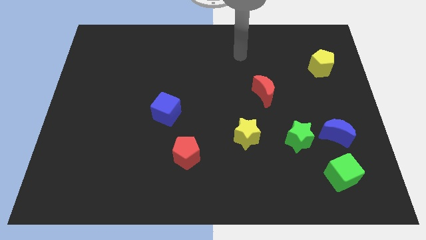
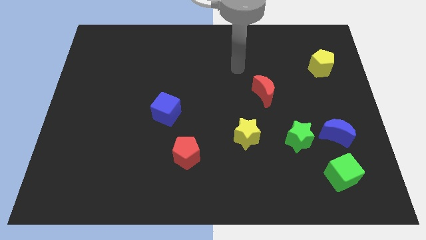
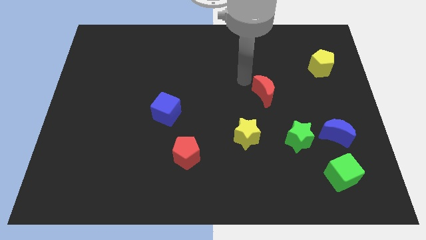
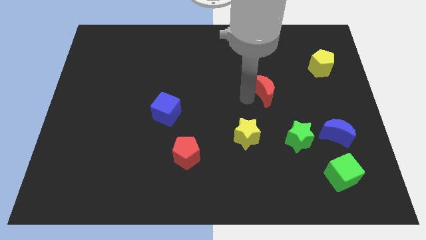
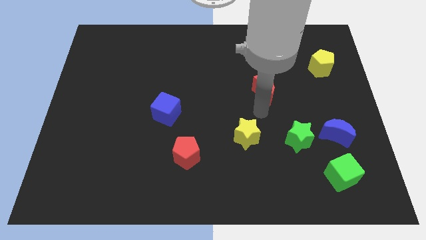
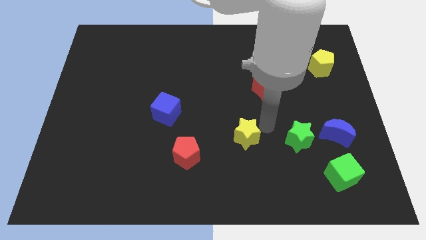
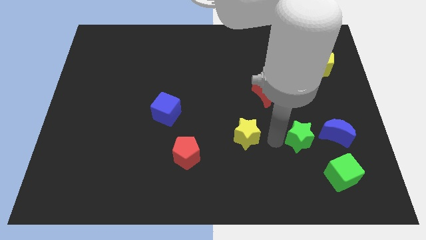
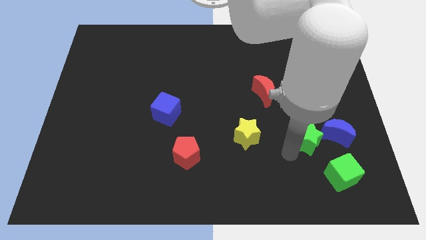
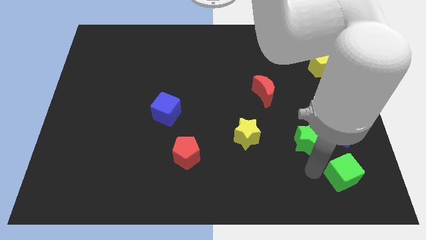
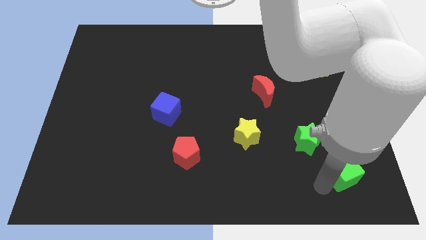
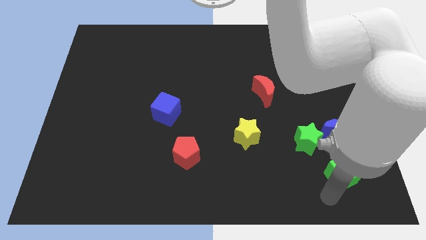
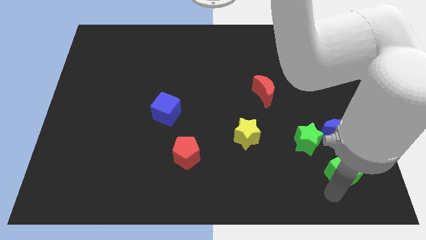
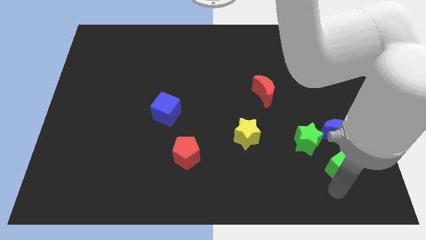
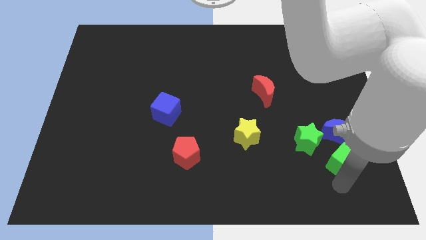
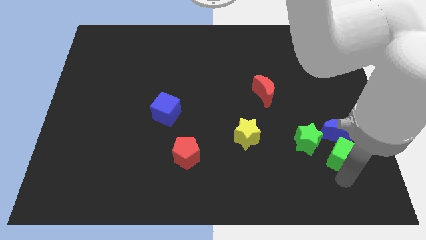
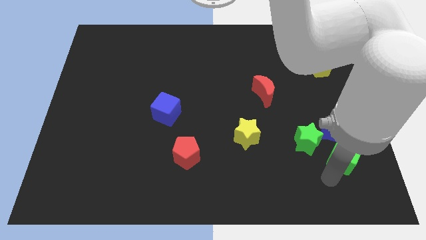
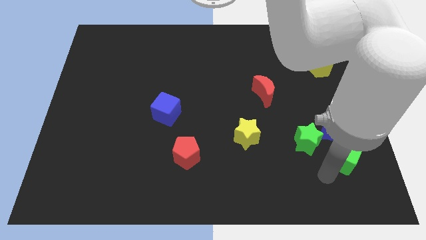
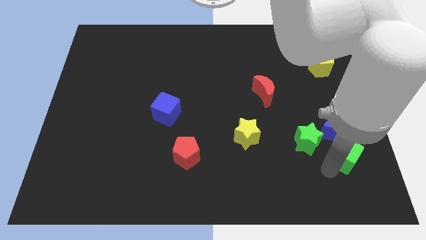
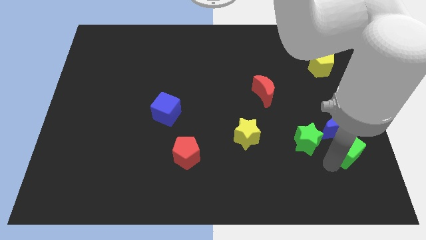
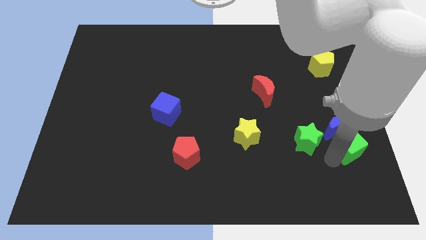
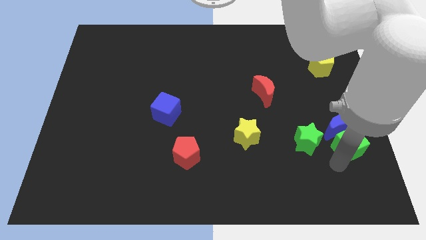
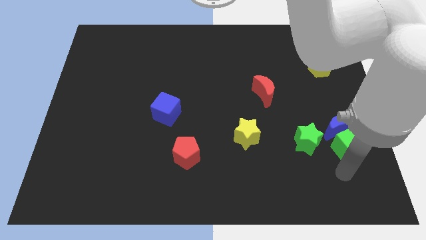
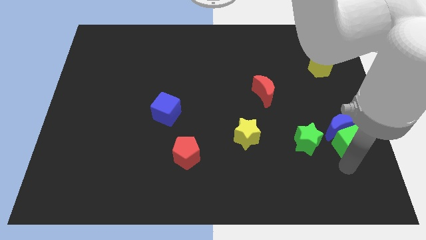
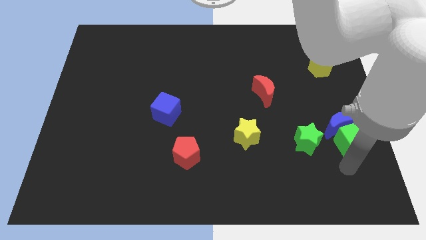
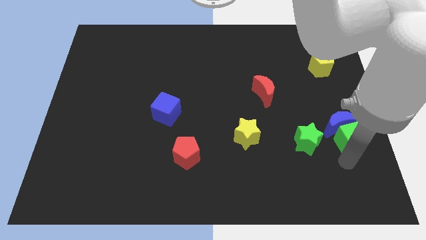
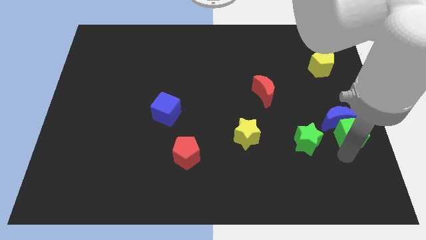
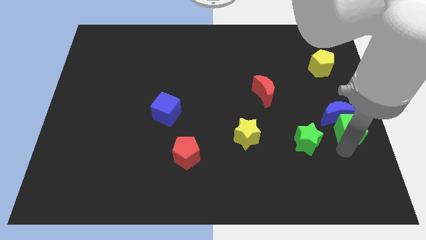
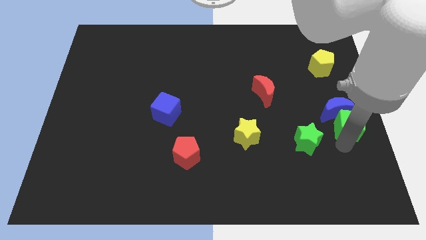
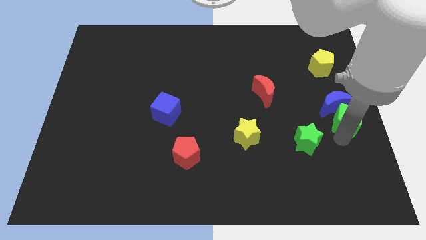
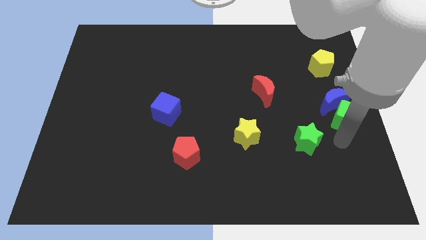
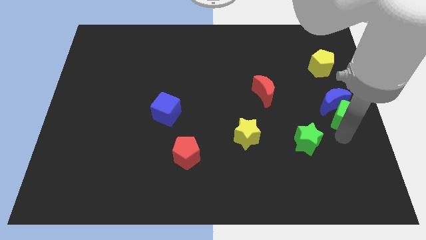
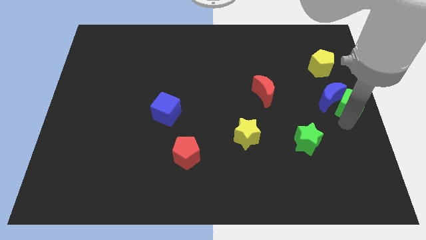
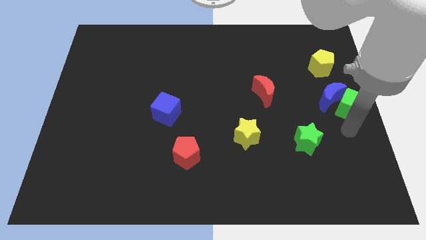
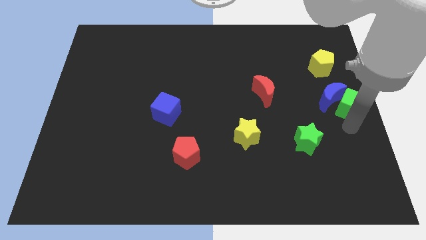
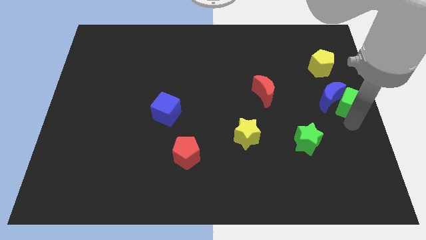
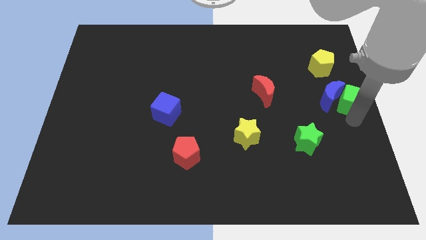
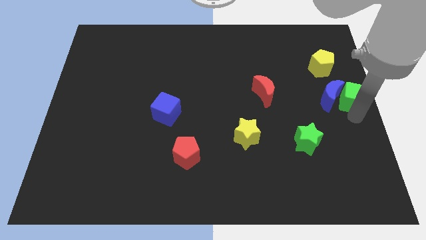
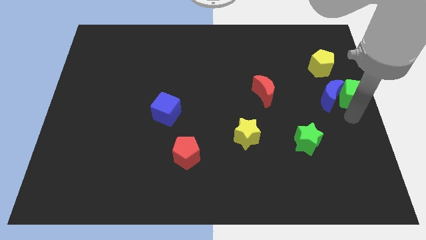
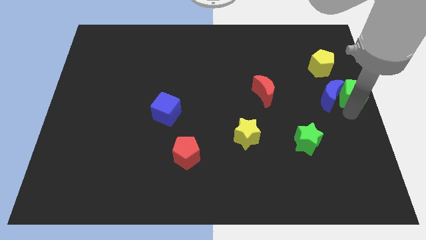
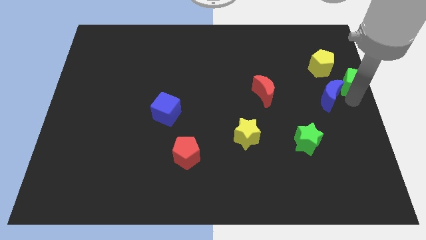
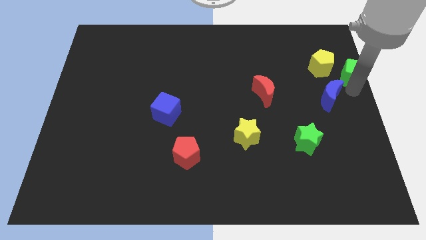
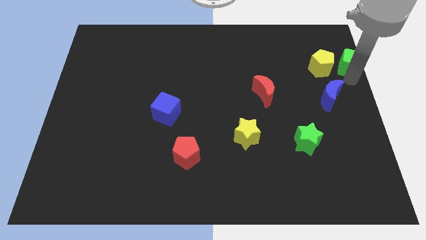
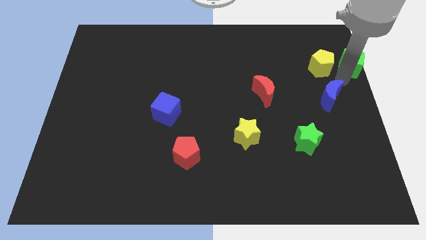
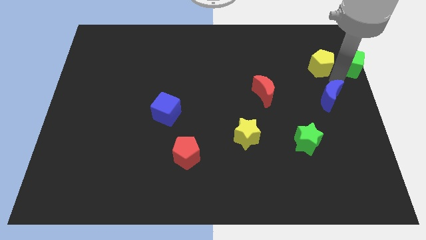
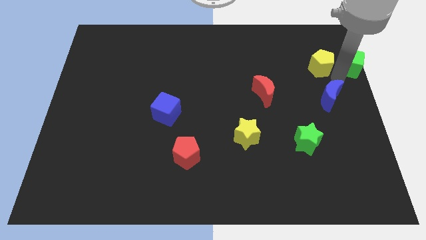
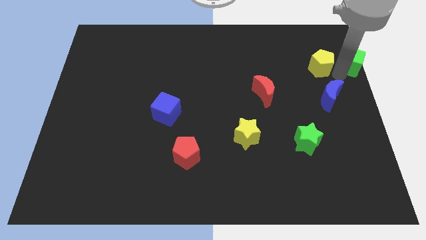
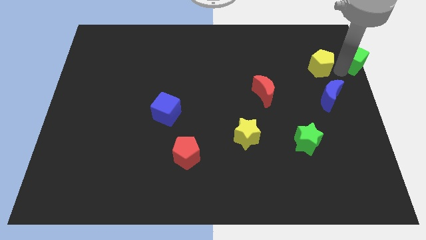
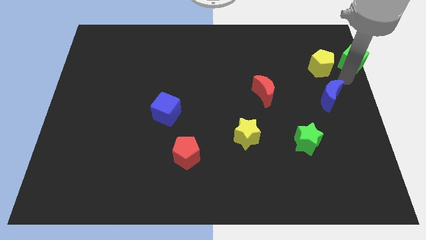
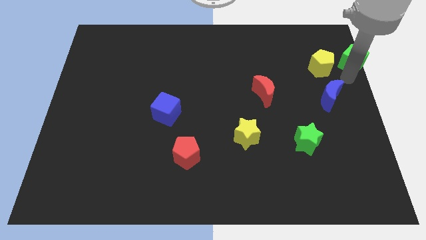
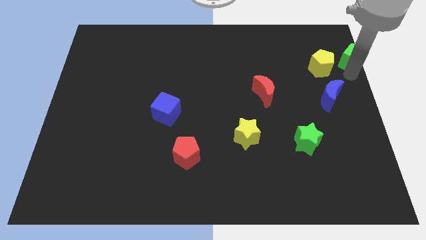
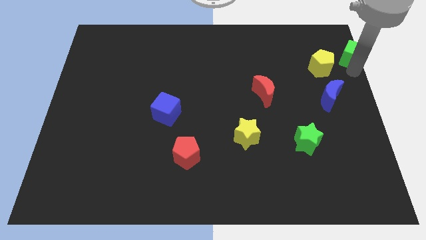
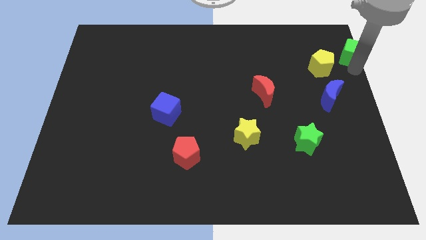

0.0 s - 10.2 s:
push the green cube to the top right corner

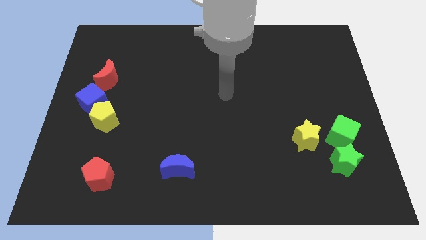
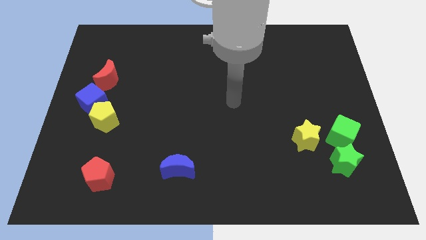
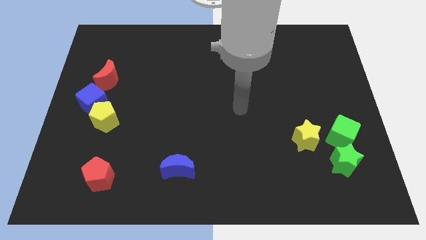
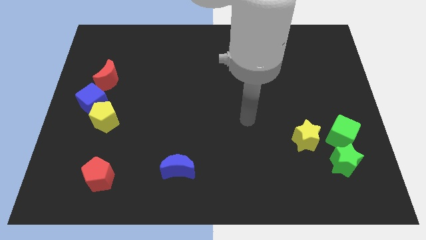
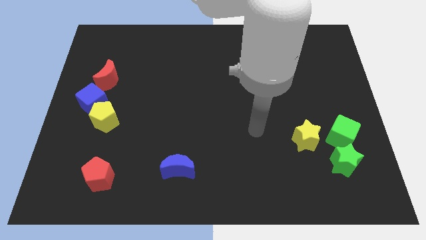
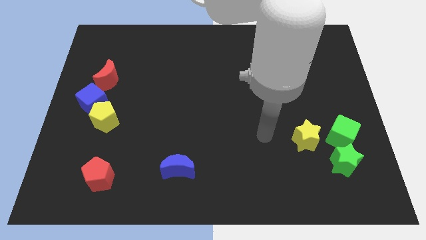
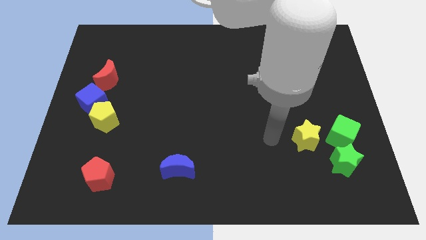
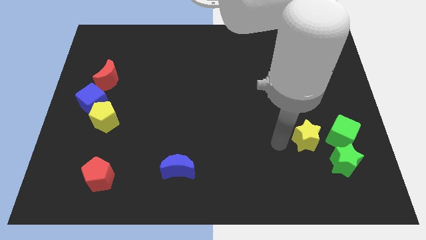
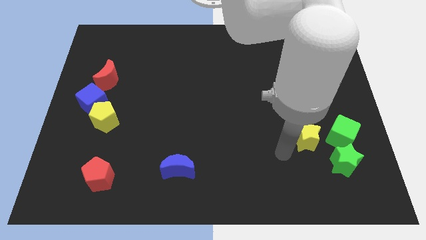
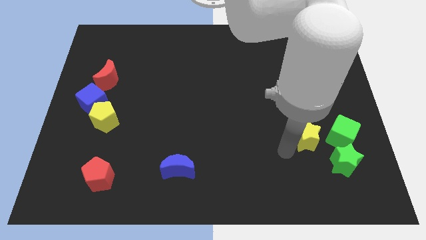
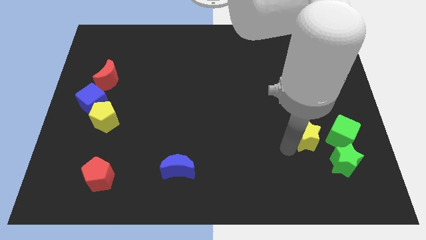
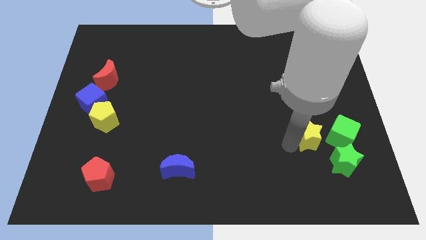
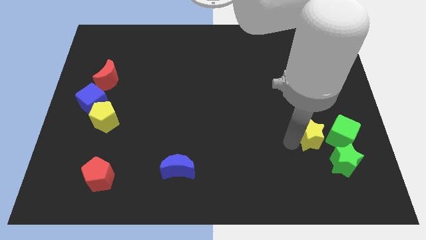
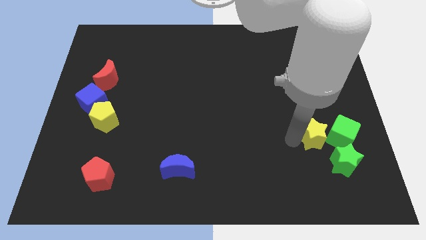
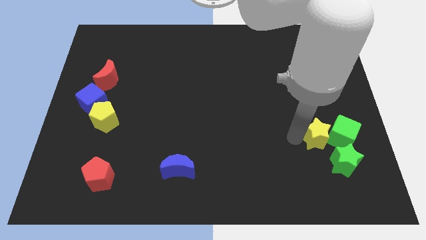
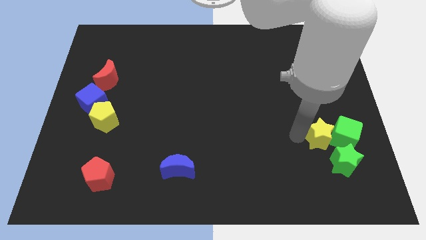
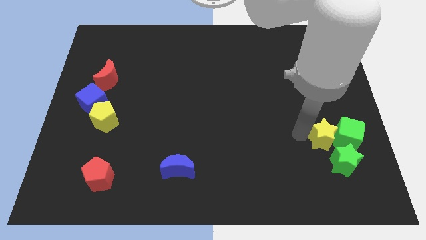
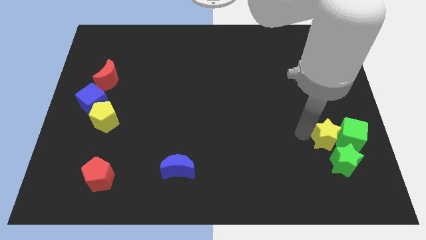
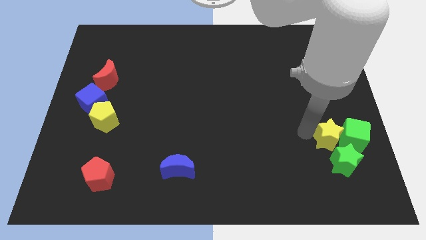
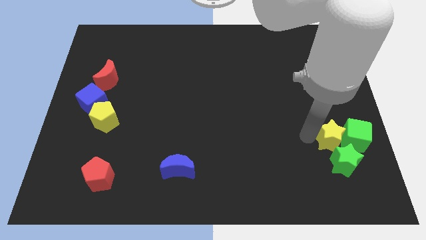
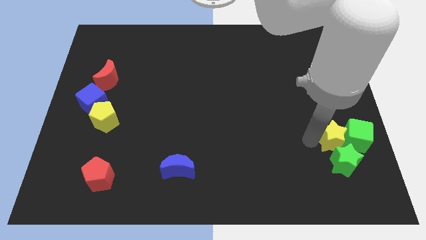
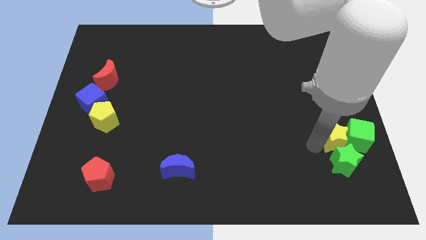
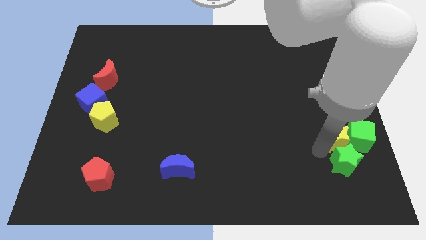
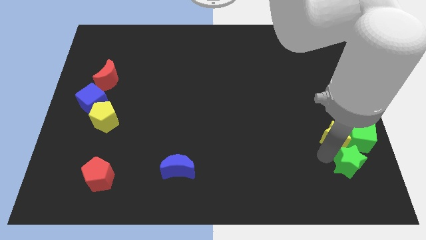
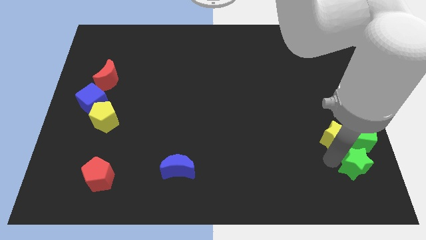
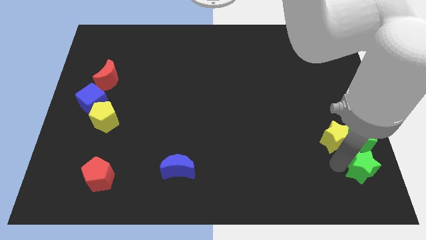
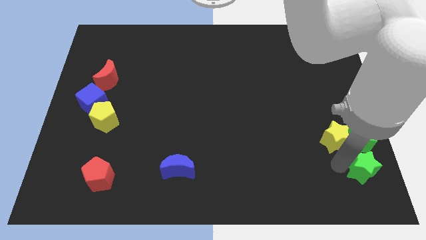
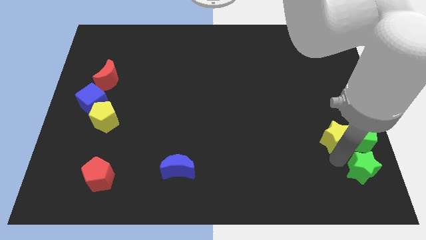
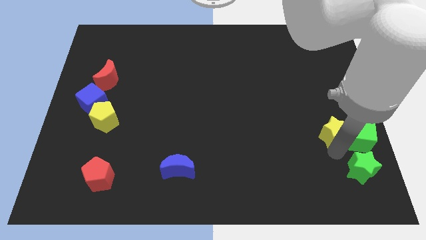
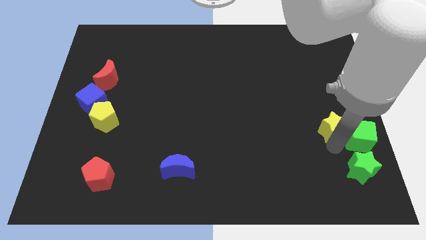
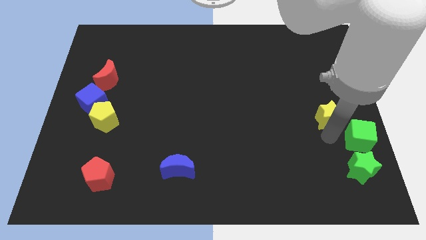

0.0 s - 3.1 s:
push the yellow star to the center right
